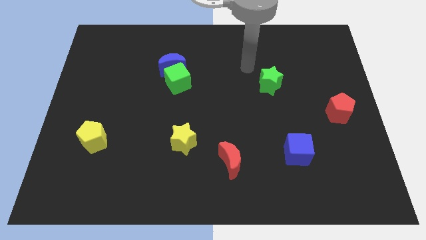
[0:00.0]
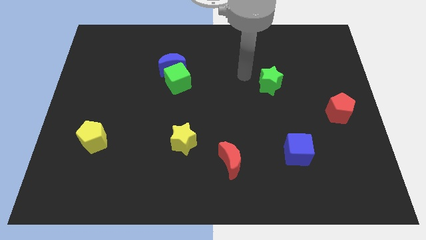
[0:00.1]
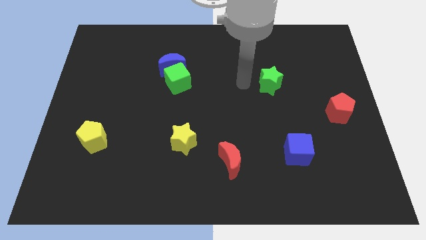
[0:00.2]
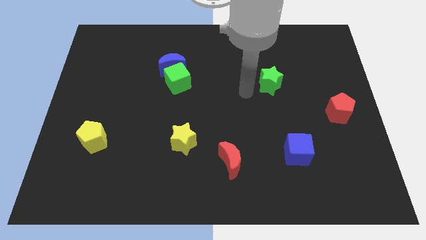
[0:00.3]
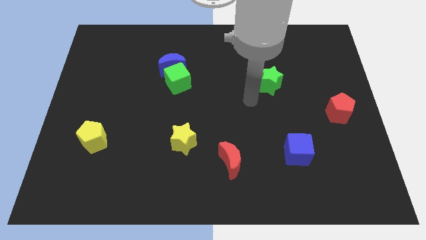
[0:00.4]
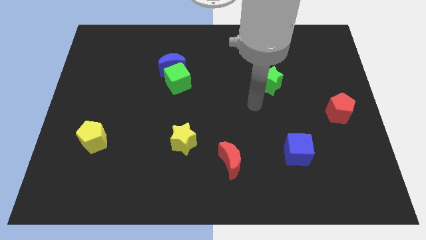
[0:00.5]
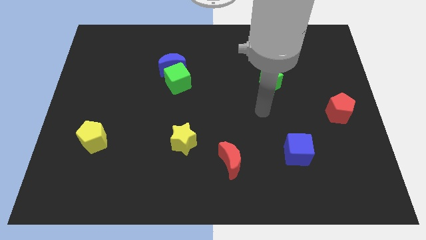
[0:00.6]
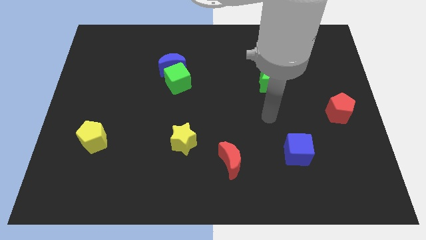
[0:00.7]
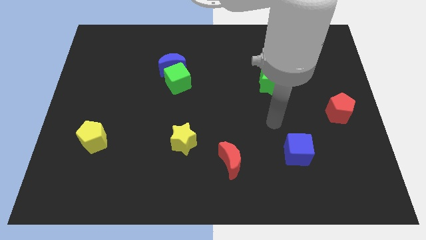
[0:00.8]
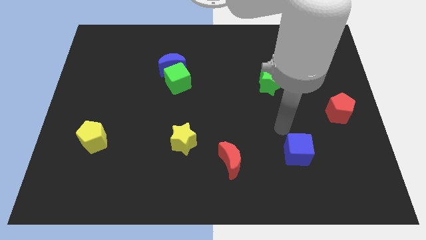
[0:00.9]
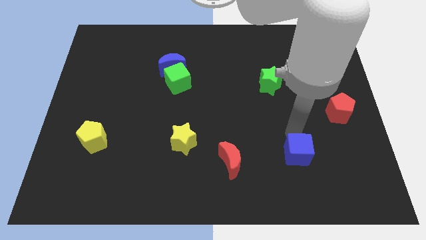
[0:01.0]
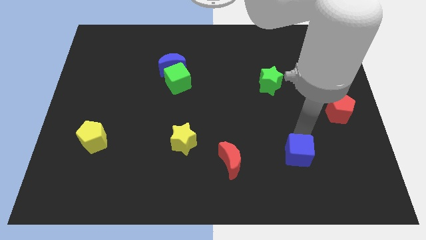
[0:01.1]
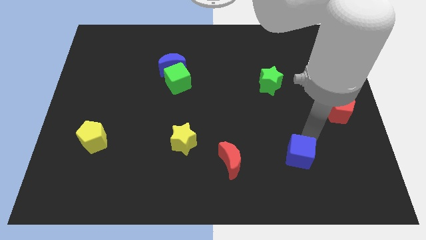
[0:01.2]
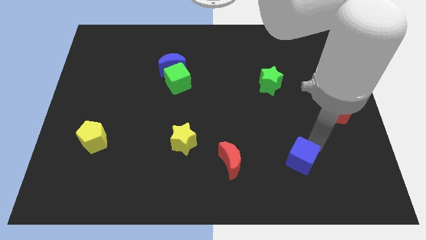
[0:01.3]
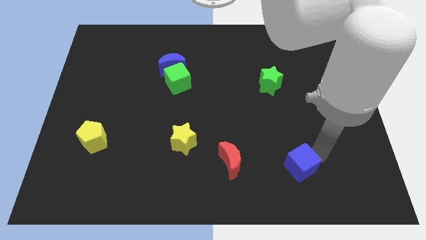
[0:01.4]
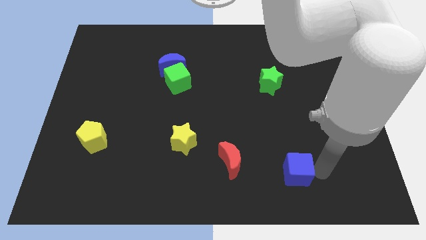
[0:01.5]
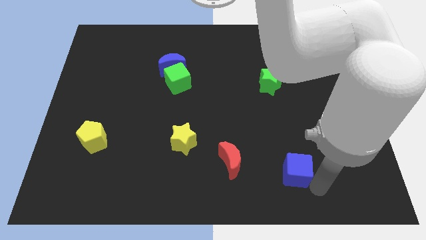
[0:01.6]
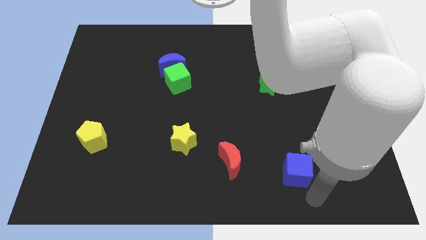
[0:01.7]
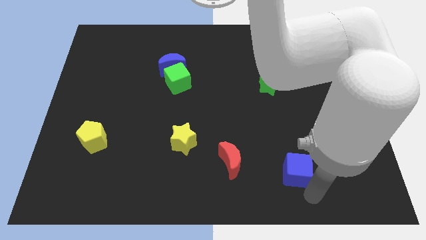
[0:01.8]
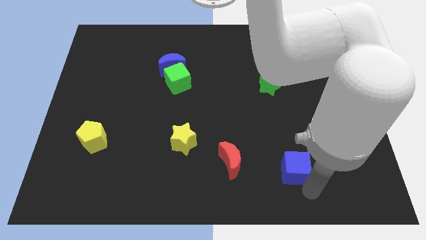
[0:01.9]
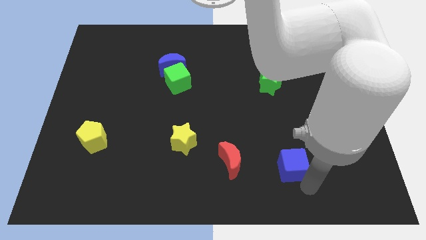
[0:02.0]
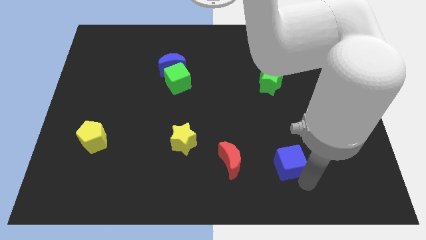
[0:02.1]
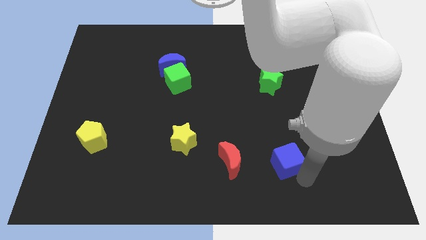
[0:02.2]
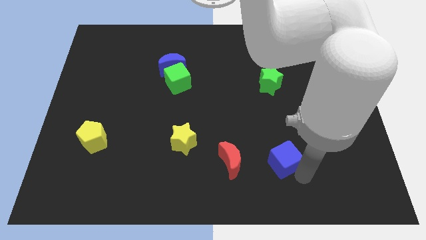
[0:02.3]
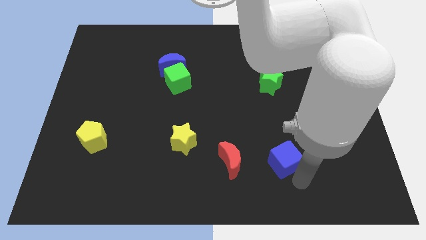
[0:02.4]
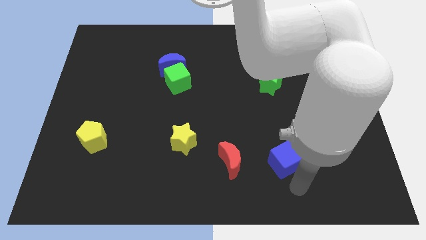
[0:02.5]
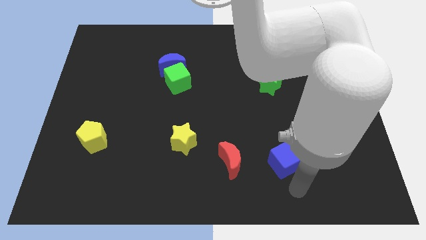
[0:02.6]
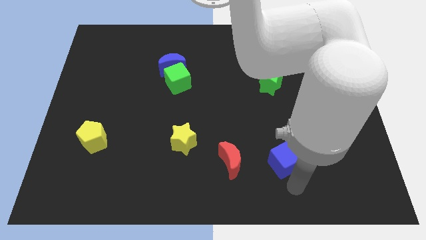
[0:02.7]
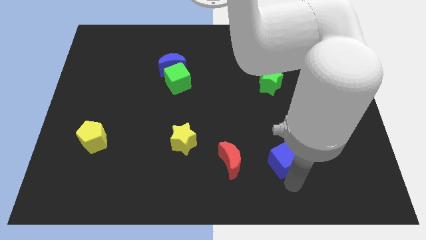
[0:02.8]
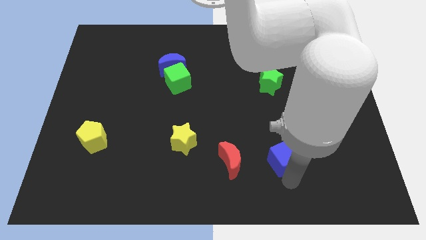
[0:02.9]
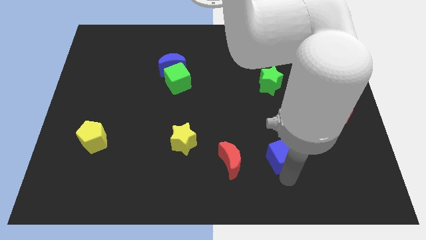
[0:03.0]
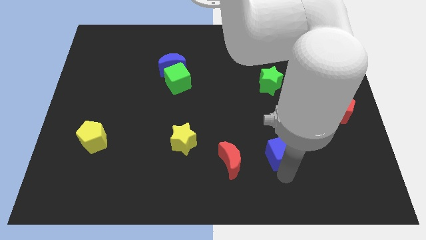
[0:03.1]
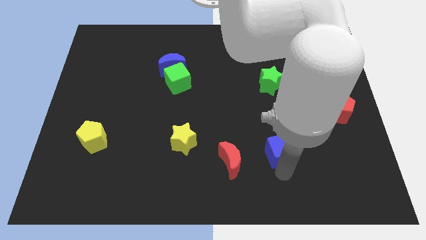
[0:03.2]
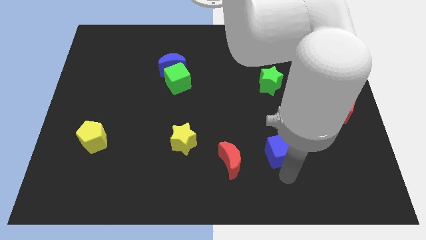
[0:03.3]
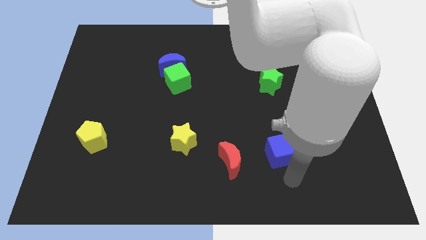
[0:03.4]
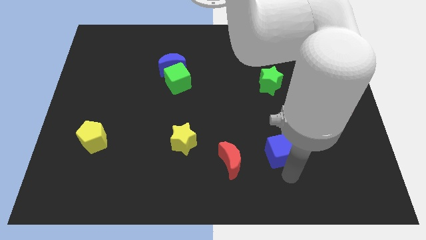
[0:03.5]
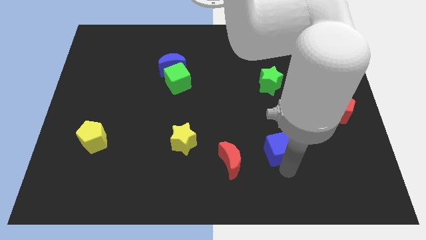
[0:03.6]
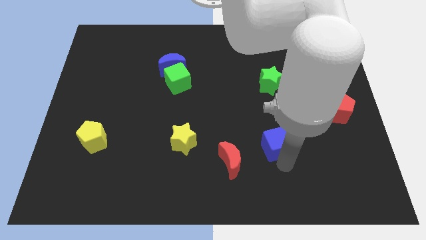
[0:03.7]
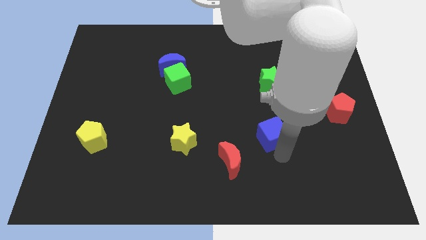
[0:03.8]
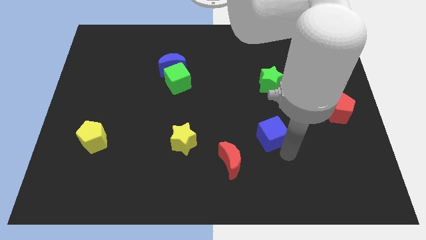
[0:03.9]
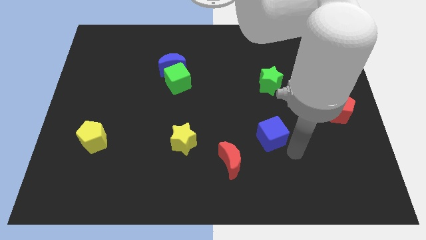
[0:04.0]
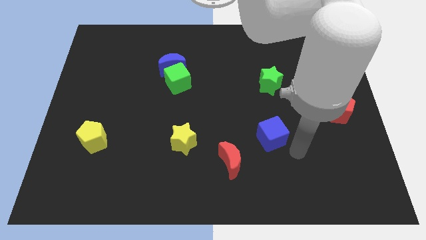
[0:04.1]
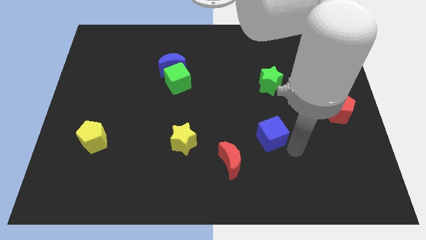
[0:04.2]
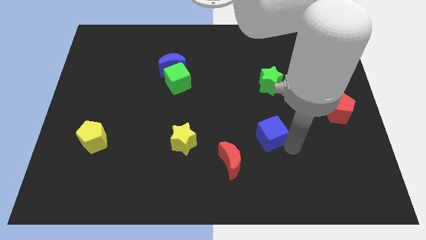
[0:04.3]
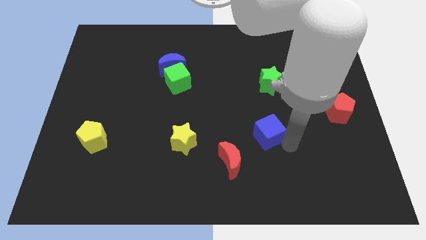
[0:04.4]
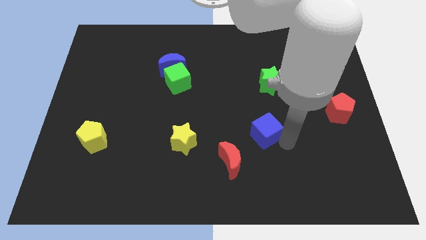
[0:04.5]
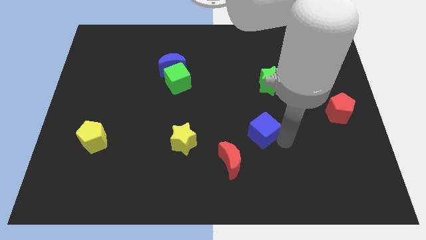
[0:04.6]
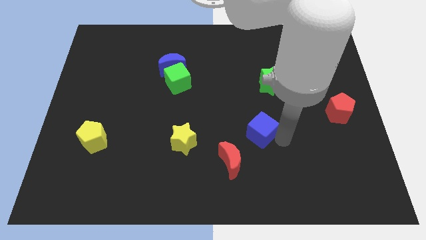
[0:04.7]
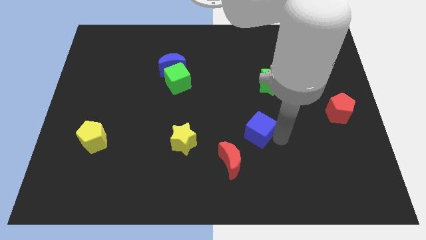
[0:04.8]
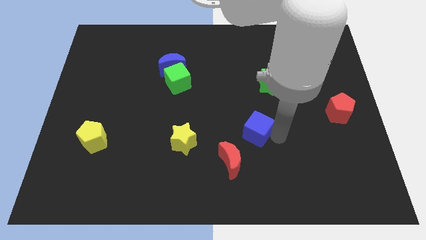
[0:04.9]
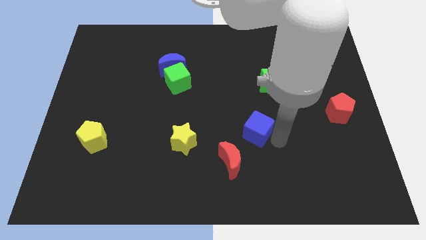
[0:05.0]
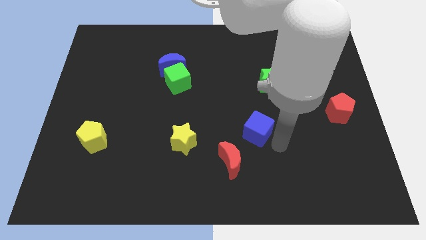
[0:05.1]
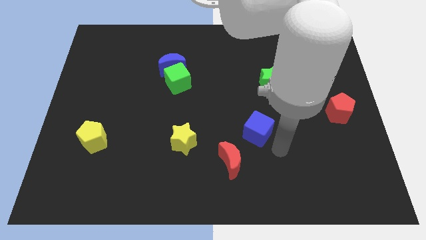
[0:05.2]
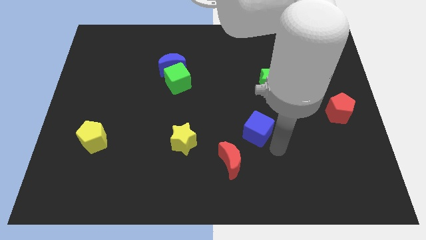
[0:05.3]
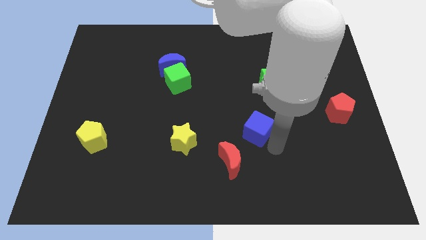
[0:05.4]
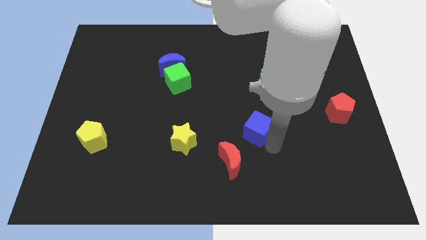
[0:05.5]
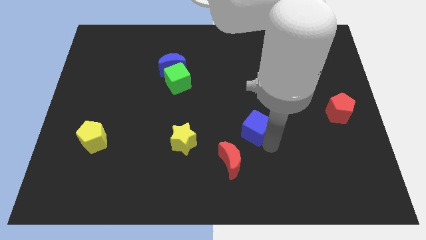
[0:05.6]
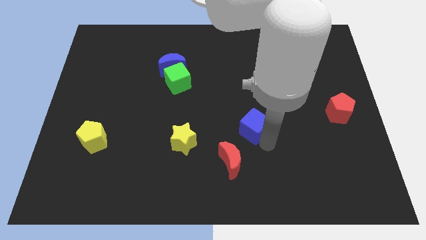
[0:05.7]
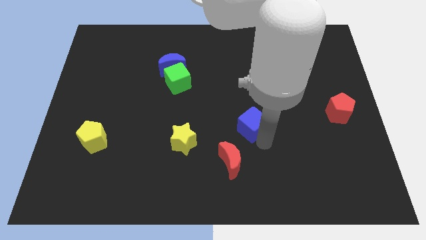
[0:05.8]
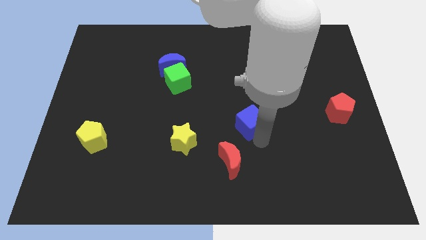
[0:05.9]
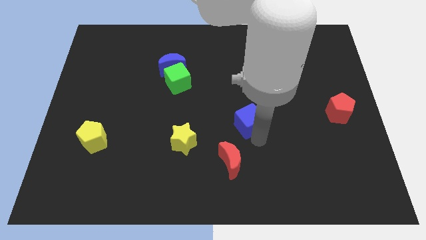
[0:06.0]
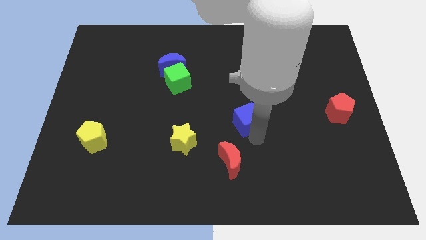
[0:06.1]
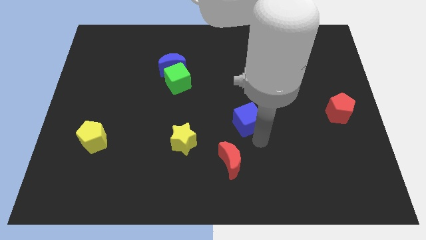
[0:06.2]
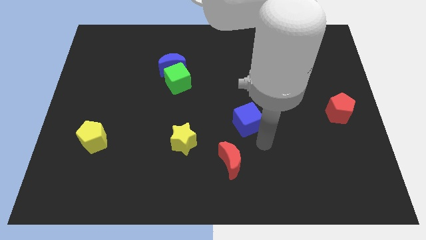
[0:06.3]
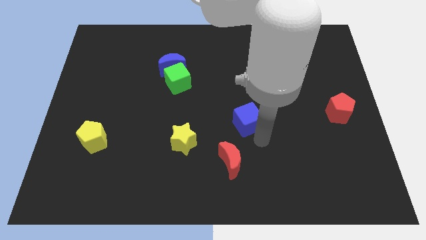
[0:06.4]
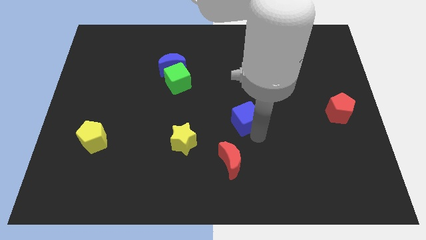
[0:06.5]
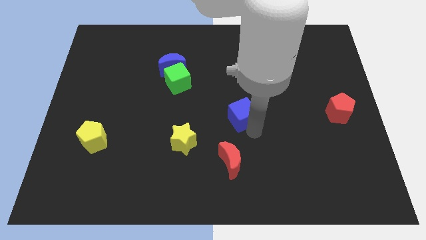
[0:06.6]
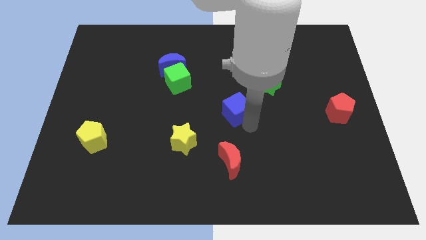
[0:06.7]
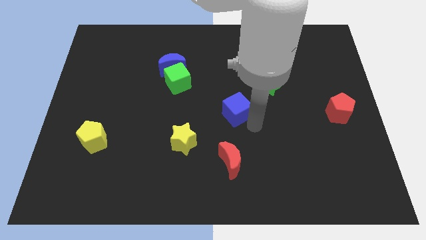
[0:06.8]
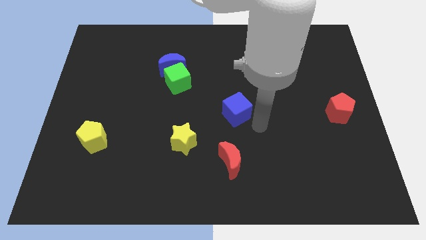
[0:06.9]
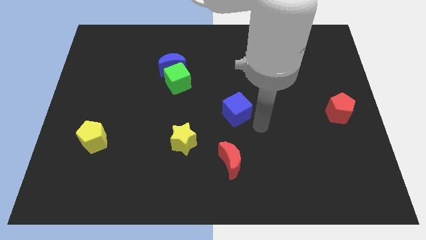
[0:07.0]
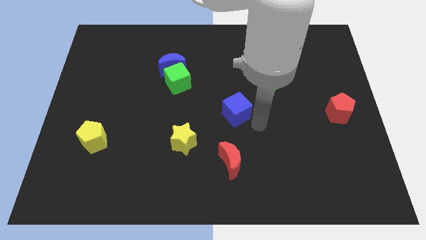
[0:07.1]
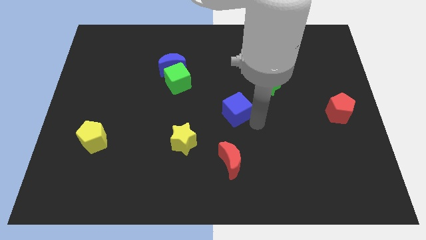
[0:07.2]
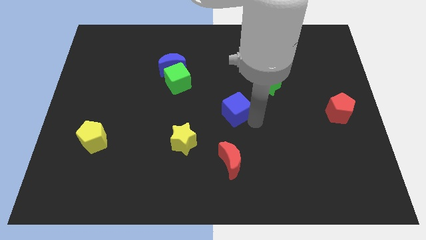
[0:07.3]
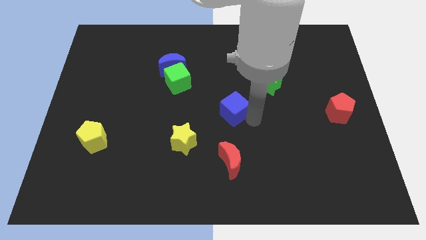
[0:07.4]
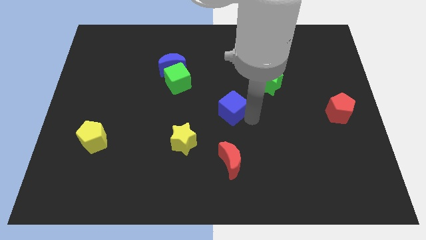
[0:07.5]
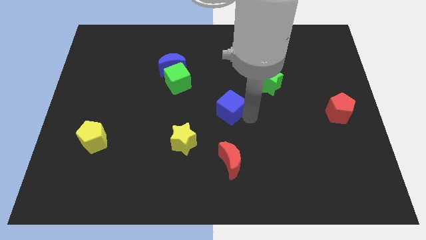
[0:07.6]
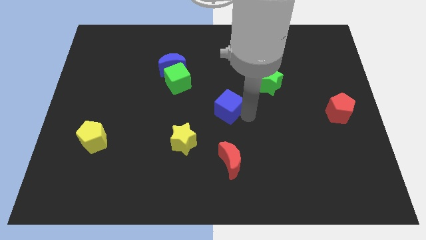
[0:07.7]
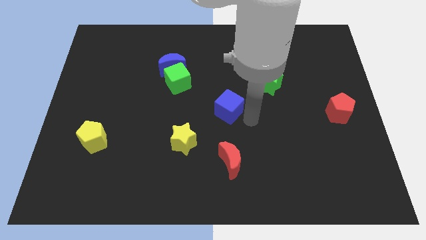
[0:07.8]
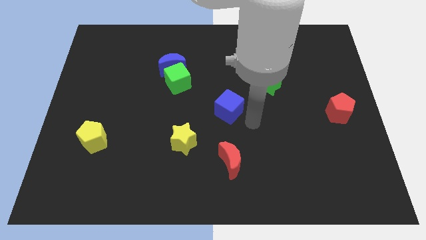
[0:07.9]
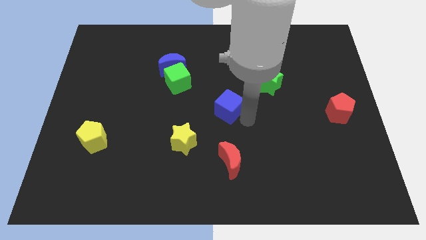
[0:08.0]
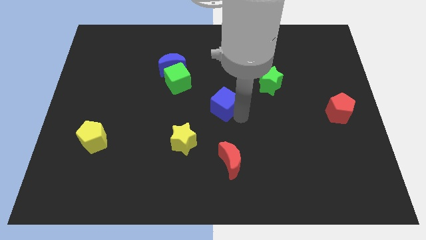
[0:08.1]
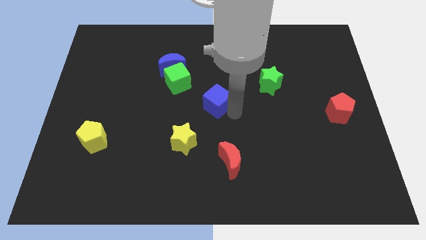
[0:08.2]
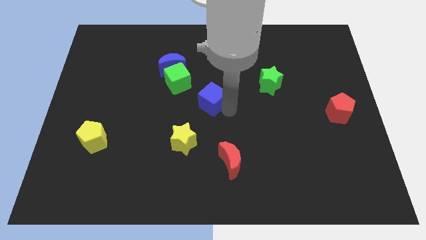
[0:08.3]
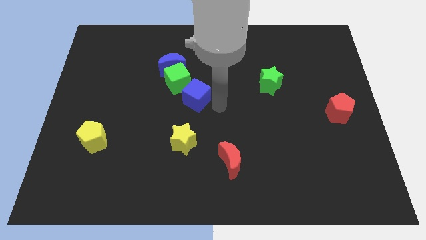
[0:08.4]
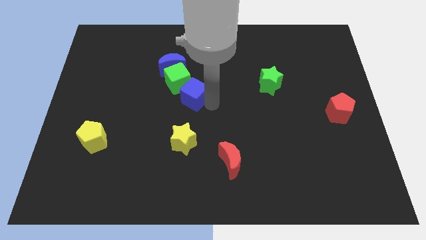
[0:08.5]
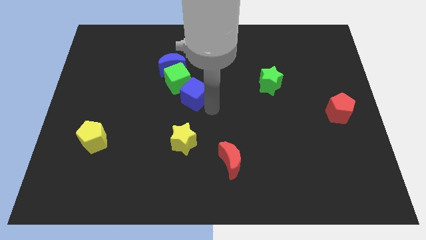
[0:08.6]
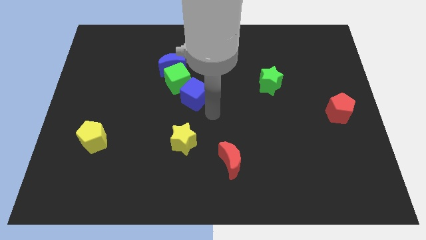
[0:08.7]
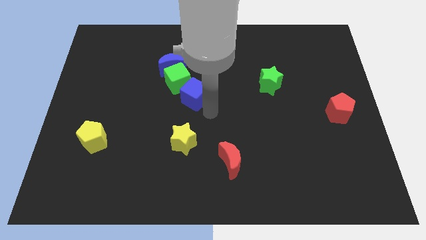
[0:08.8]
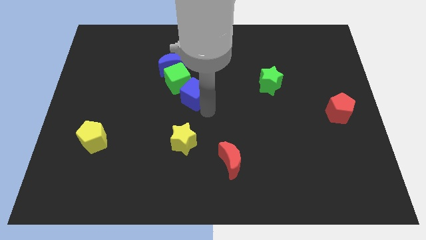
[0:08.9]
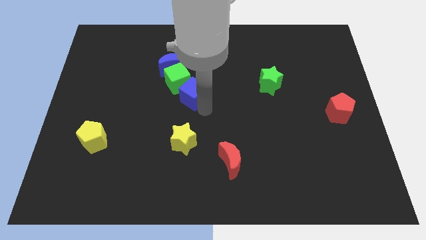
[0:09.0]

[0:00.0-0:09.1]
move the blue cube to the green cube
